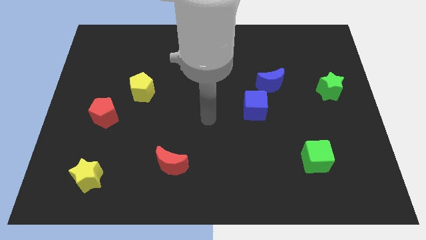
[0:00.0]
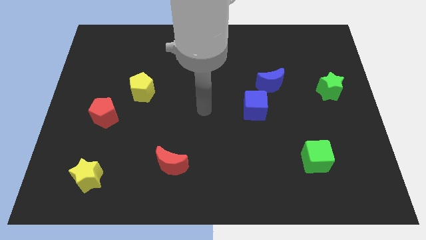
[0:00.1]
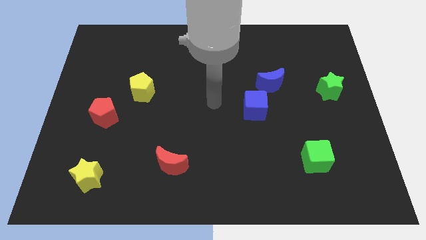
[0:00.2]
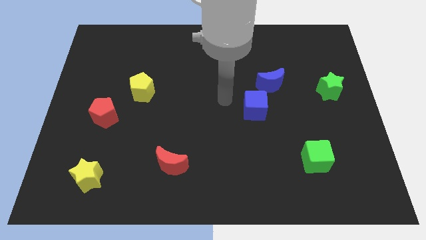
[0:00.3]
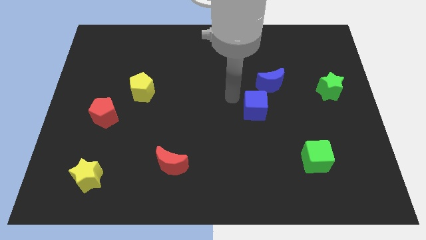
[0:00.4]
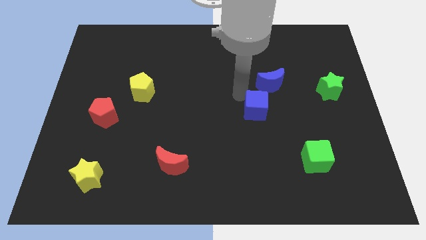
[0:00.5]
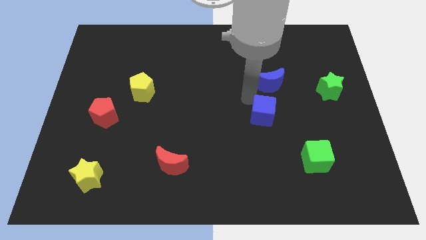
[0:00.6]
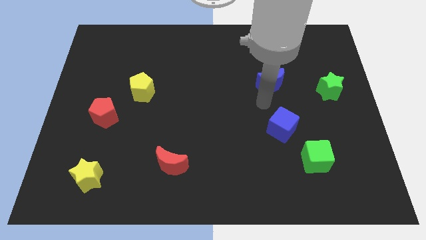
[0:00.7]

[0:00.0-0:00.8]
separate the blue moon from the blue cube

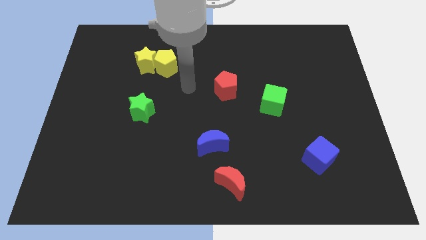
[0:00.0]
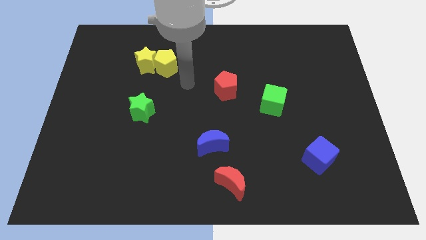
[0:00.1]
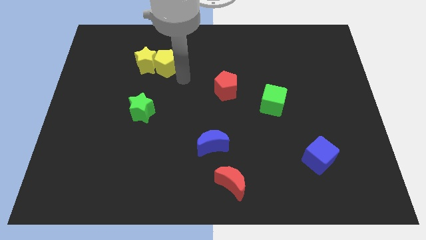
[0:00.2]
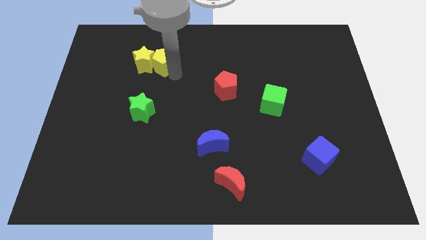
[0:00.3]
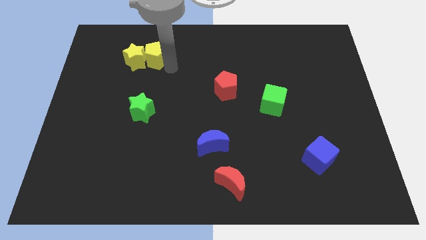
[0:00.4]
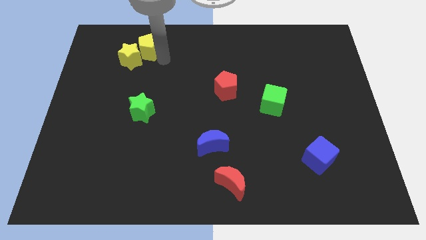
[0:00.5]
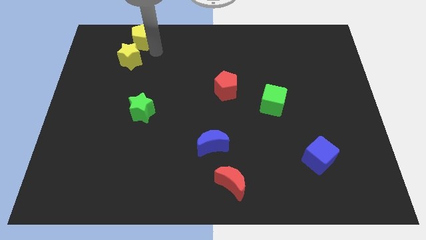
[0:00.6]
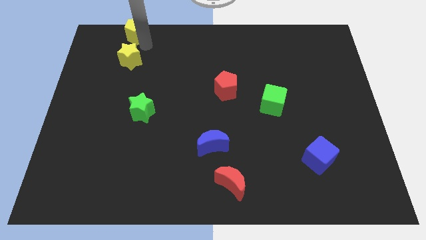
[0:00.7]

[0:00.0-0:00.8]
move the yellow star away from the yellow pentagon

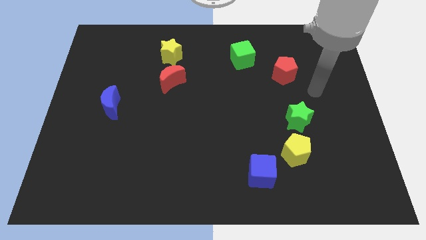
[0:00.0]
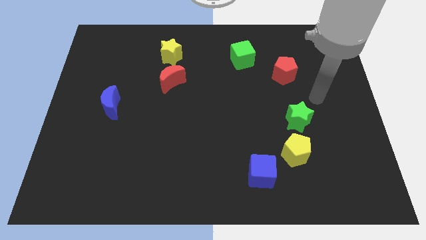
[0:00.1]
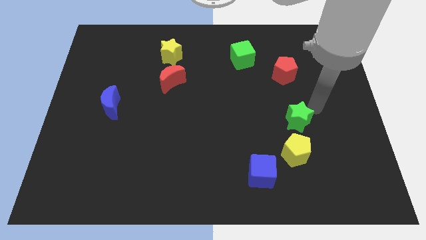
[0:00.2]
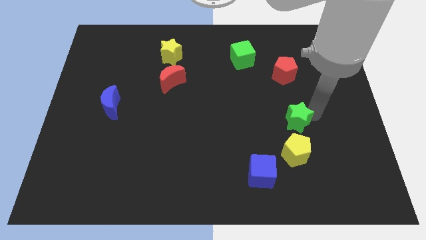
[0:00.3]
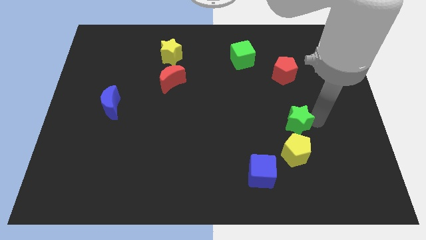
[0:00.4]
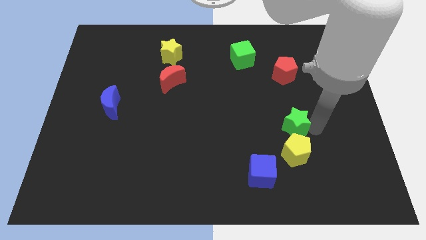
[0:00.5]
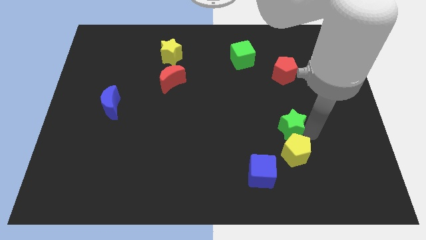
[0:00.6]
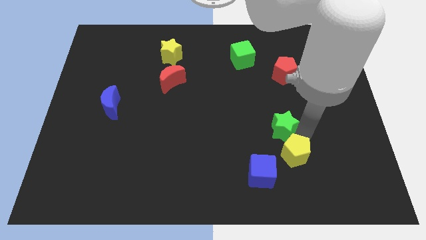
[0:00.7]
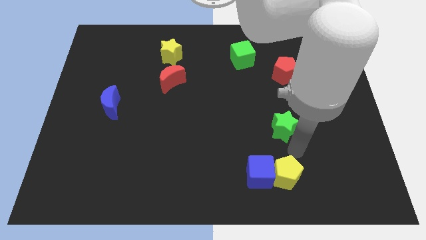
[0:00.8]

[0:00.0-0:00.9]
separate the green star from the yellow pentagon

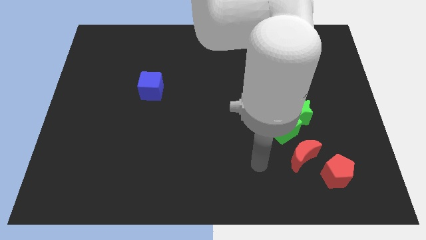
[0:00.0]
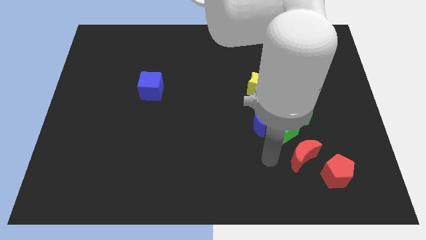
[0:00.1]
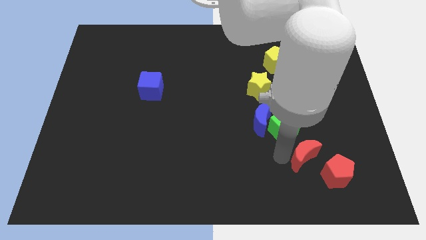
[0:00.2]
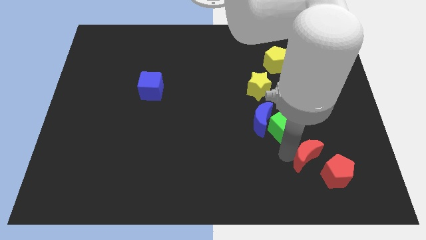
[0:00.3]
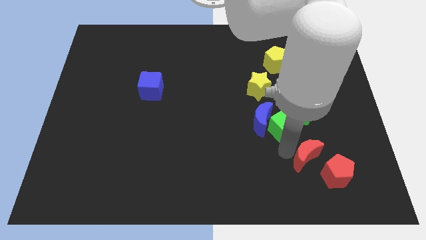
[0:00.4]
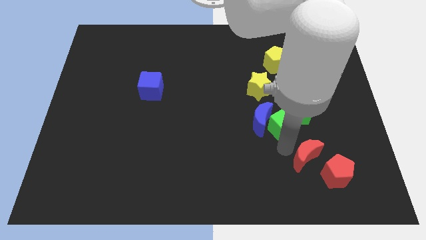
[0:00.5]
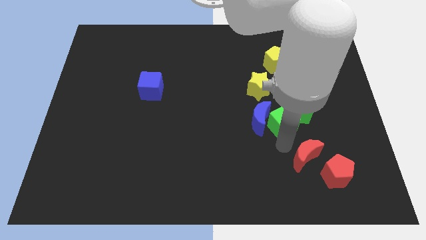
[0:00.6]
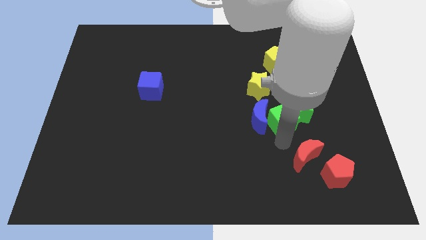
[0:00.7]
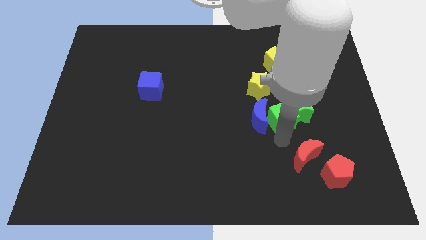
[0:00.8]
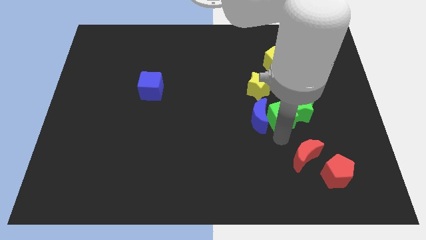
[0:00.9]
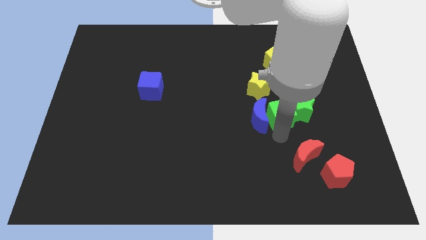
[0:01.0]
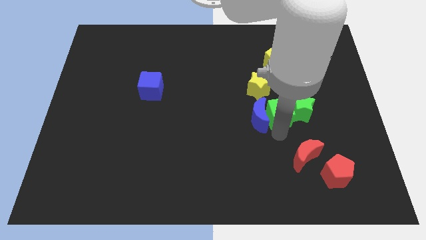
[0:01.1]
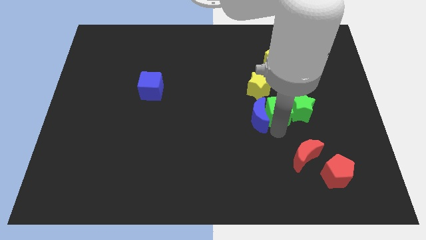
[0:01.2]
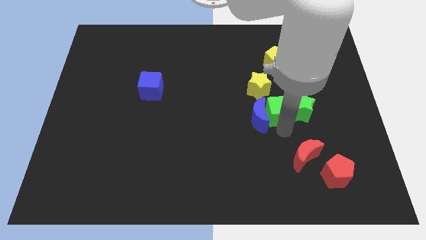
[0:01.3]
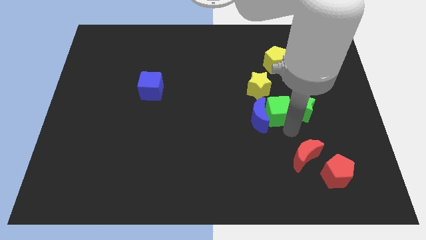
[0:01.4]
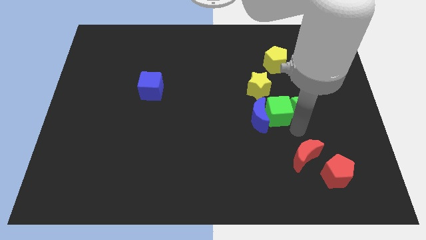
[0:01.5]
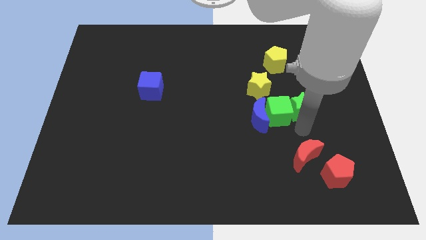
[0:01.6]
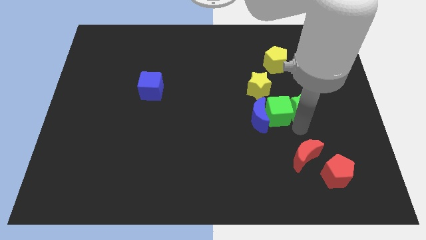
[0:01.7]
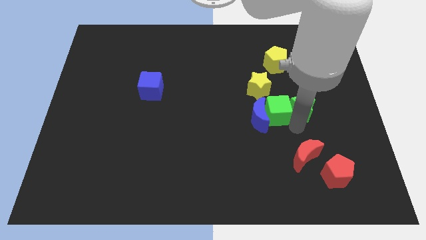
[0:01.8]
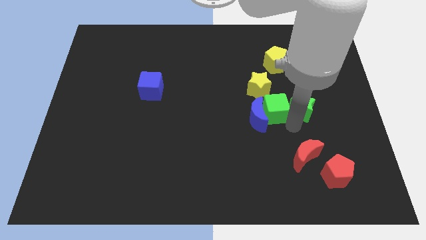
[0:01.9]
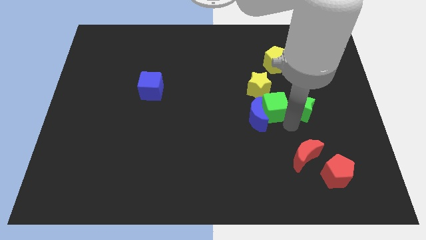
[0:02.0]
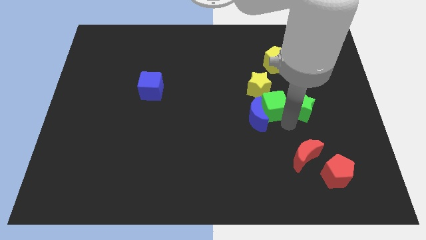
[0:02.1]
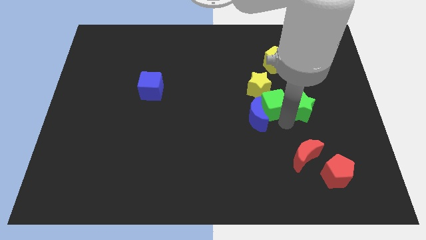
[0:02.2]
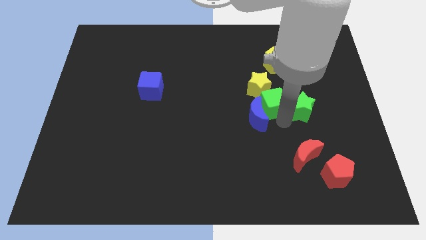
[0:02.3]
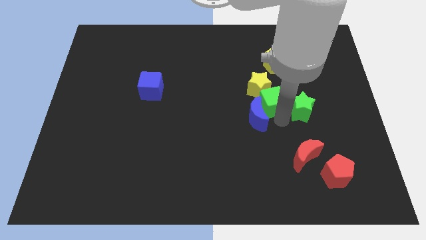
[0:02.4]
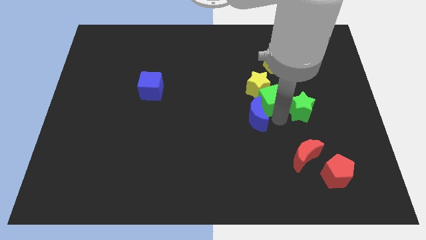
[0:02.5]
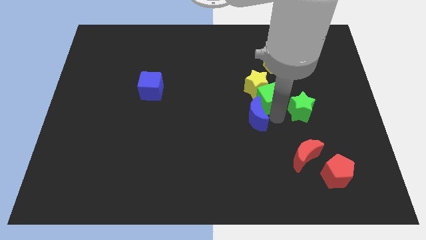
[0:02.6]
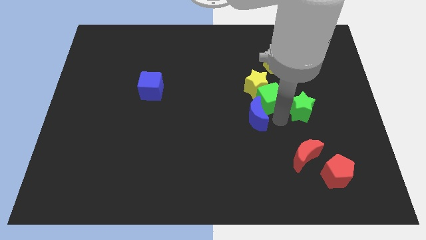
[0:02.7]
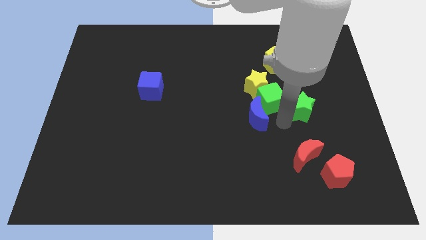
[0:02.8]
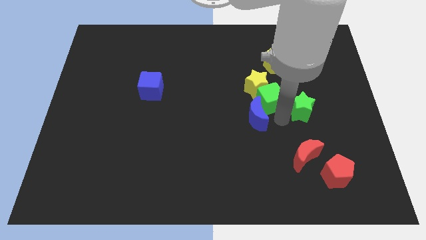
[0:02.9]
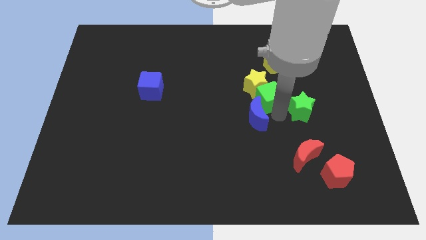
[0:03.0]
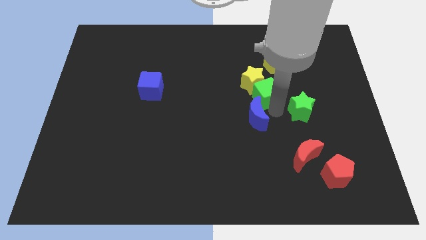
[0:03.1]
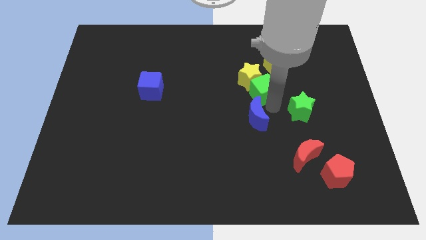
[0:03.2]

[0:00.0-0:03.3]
move the green cube away from the group of blocks

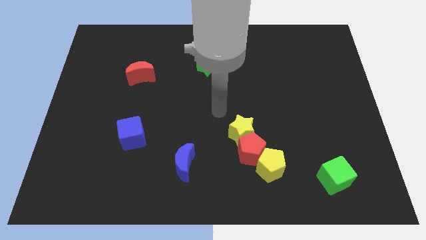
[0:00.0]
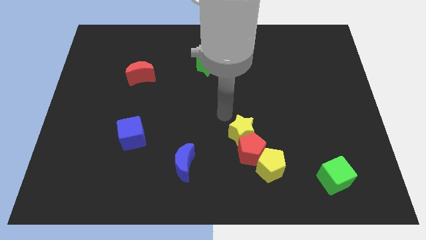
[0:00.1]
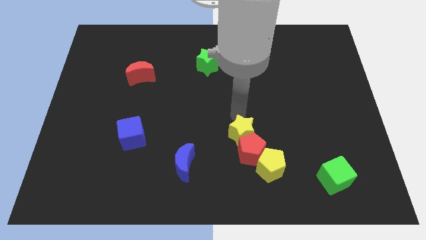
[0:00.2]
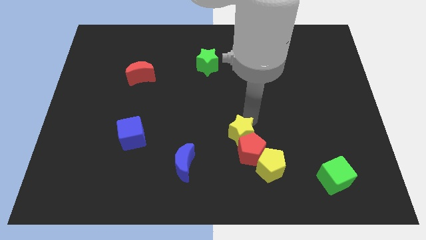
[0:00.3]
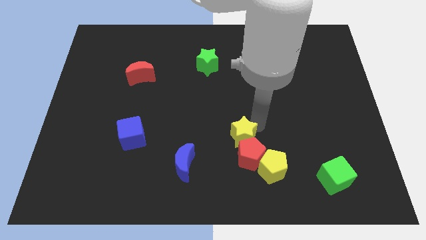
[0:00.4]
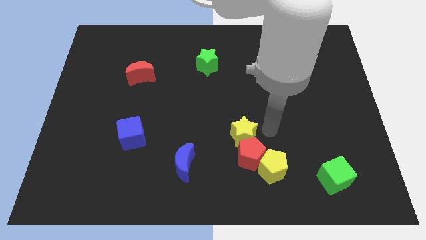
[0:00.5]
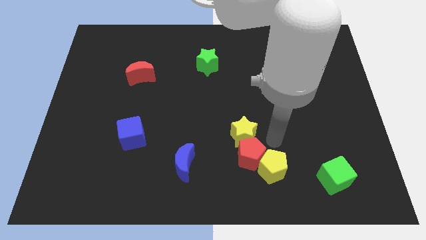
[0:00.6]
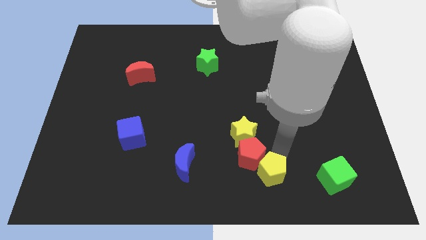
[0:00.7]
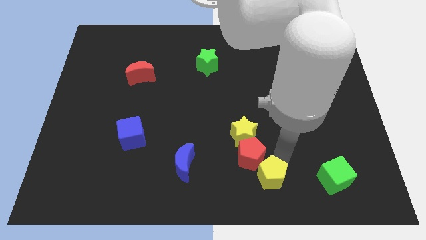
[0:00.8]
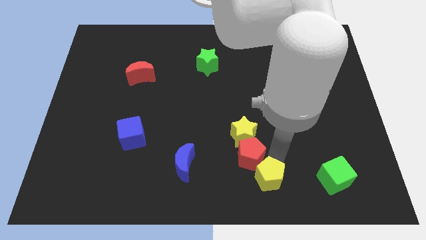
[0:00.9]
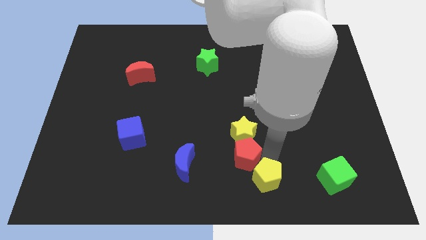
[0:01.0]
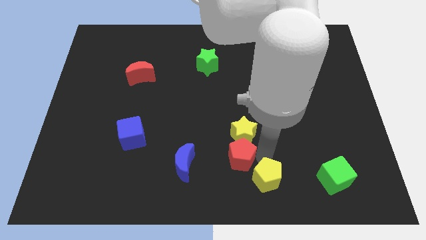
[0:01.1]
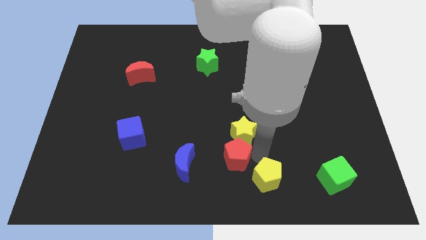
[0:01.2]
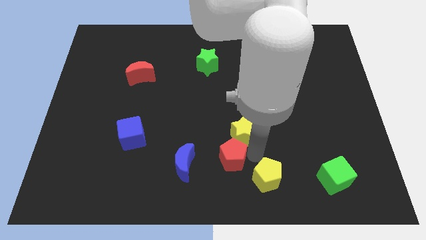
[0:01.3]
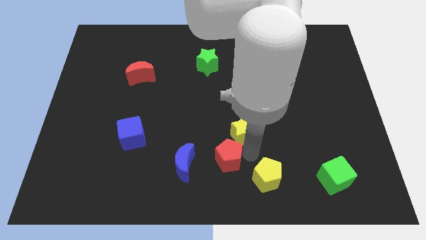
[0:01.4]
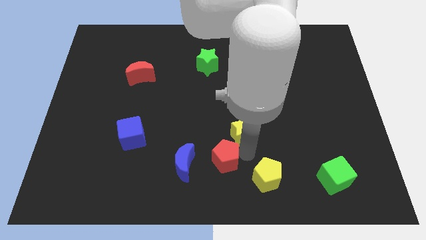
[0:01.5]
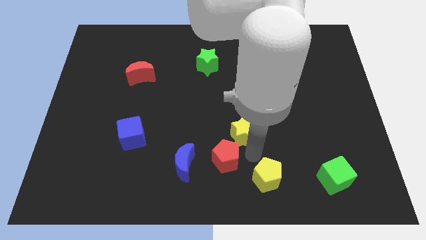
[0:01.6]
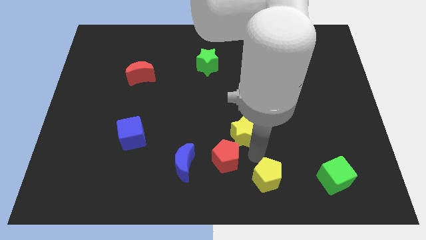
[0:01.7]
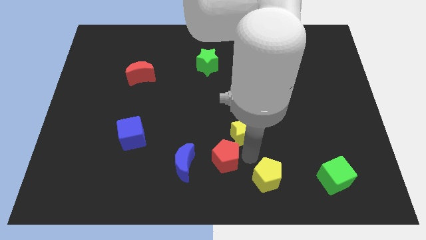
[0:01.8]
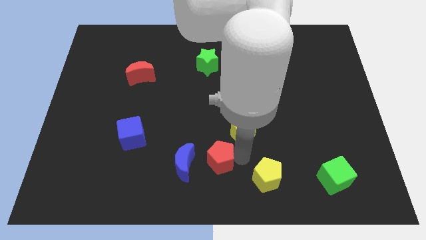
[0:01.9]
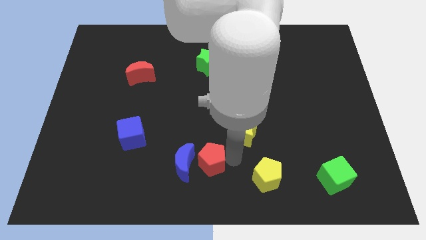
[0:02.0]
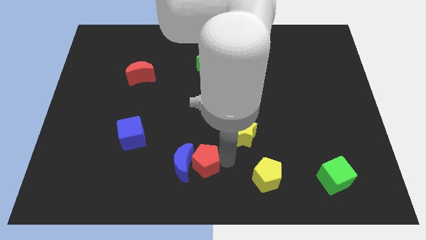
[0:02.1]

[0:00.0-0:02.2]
separate the red pentagon from the yellow pentagon and yellow star

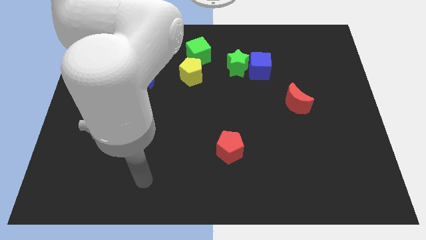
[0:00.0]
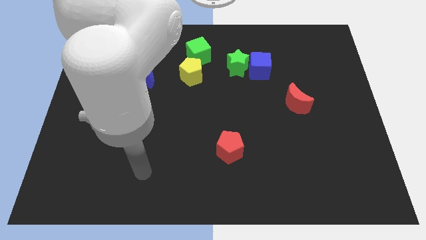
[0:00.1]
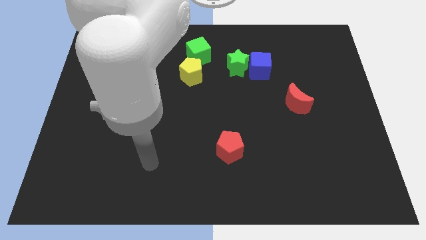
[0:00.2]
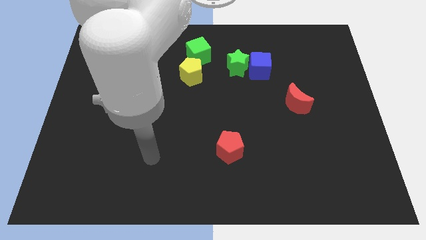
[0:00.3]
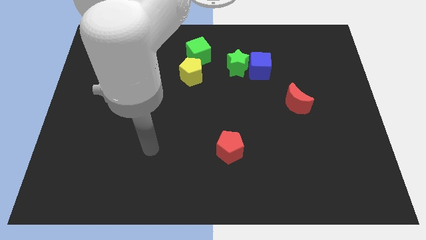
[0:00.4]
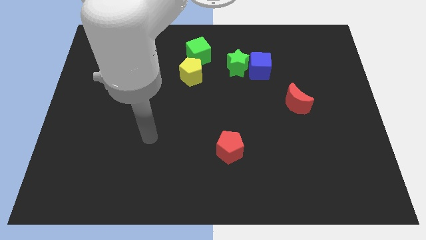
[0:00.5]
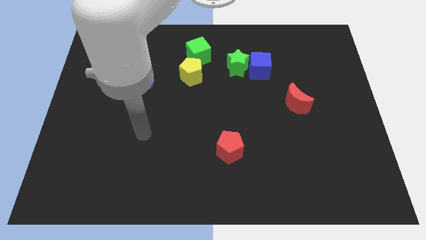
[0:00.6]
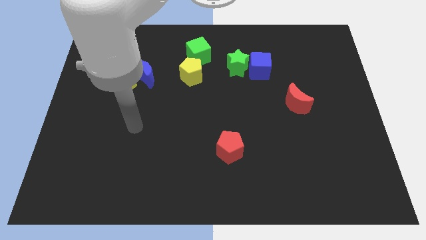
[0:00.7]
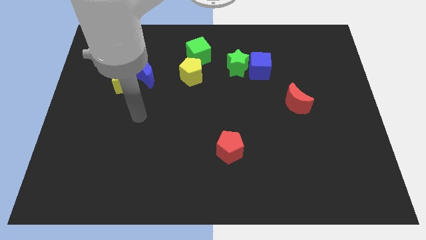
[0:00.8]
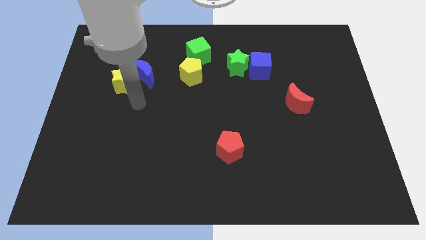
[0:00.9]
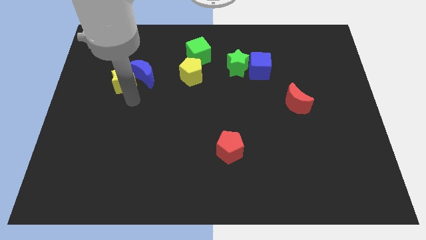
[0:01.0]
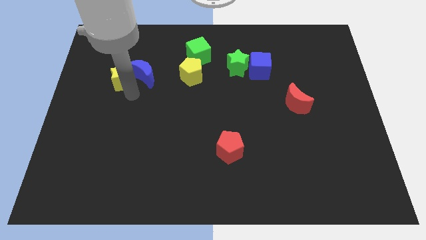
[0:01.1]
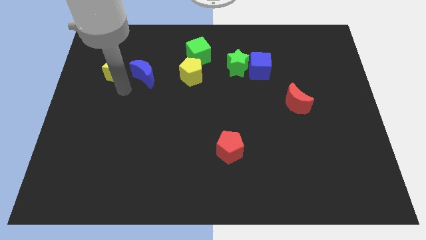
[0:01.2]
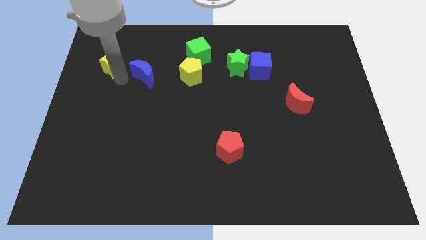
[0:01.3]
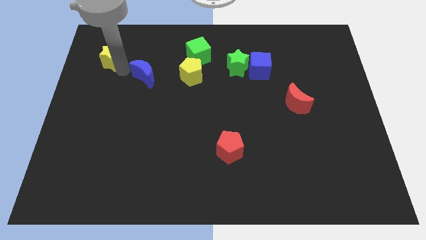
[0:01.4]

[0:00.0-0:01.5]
move the blue moon away from the yellow star
